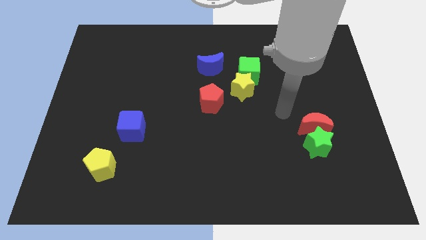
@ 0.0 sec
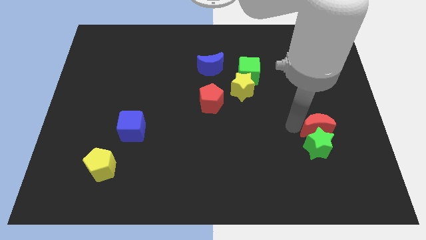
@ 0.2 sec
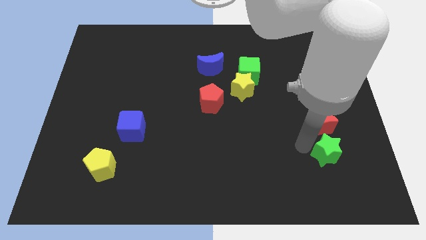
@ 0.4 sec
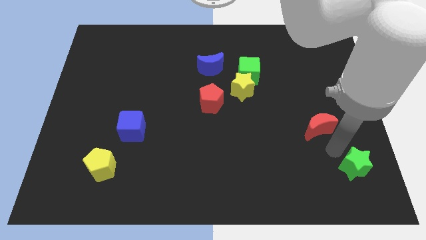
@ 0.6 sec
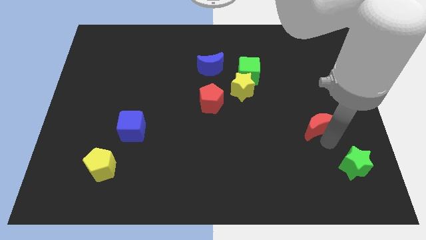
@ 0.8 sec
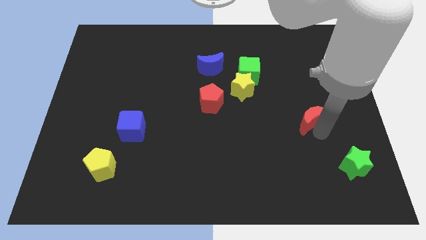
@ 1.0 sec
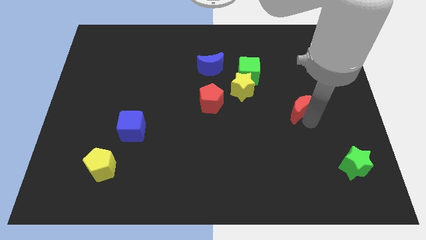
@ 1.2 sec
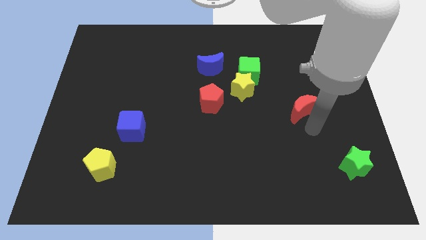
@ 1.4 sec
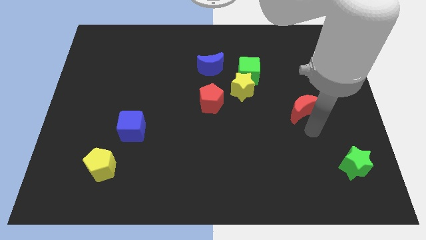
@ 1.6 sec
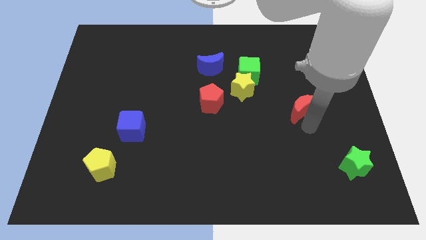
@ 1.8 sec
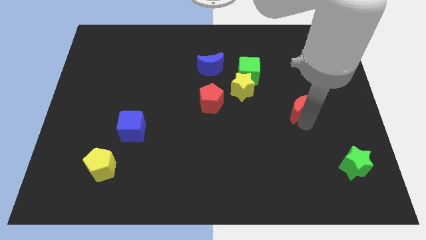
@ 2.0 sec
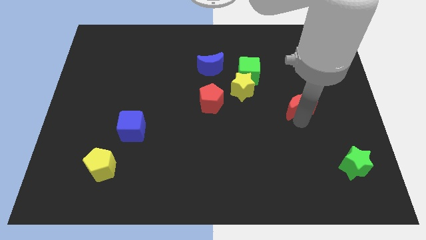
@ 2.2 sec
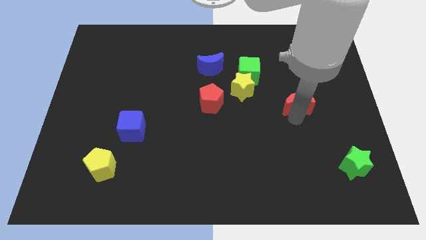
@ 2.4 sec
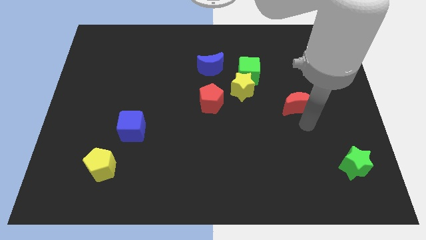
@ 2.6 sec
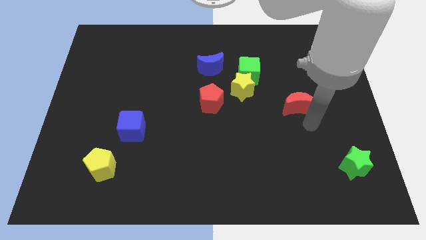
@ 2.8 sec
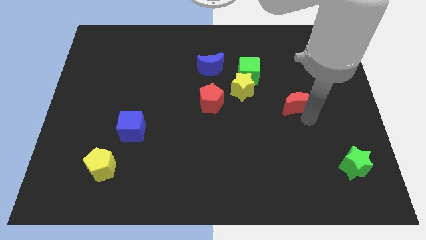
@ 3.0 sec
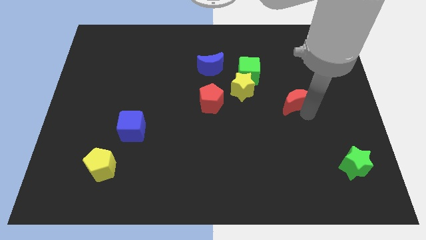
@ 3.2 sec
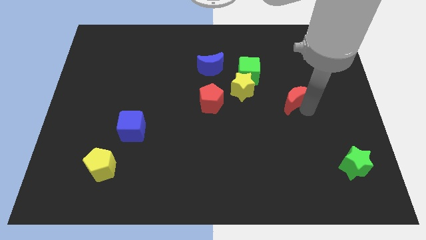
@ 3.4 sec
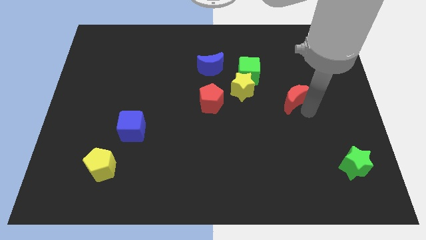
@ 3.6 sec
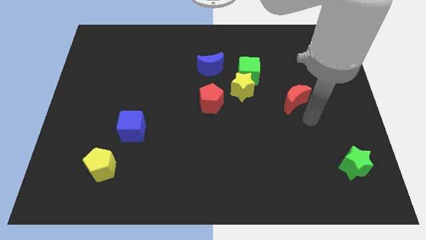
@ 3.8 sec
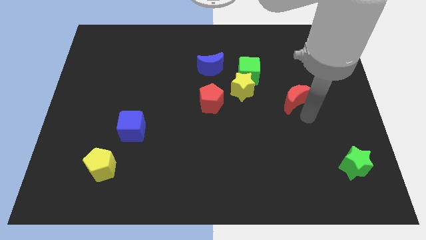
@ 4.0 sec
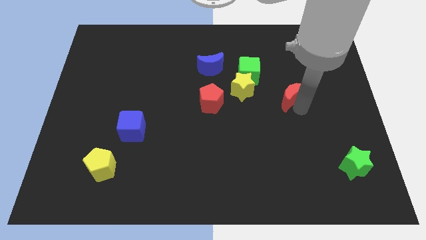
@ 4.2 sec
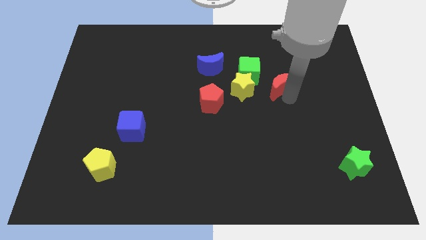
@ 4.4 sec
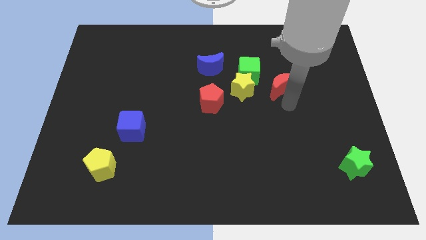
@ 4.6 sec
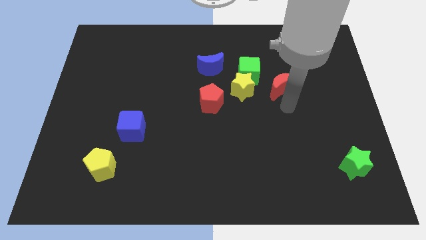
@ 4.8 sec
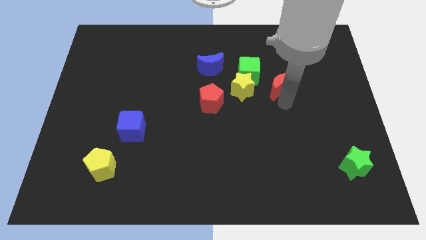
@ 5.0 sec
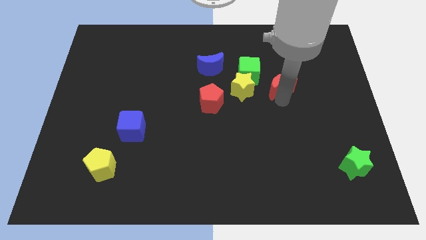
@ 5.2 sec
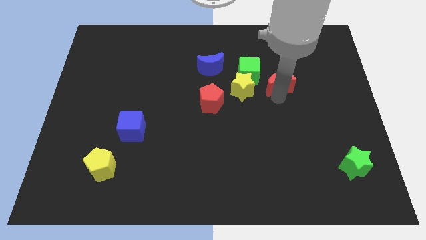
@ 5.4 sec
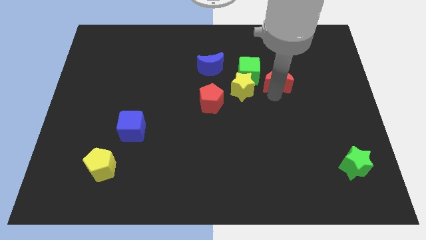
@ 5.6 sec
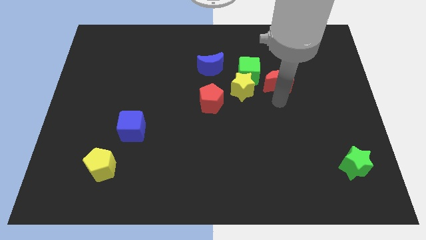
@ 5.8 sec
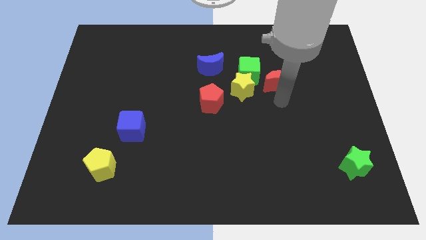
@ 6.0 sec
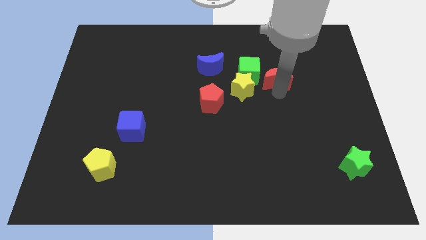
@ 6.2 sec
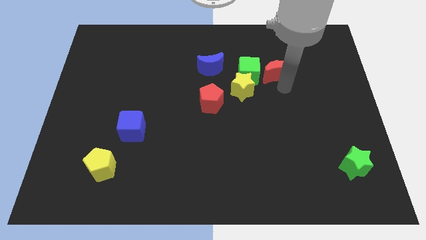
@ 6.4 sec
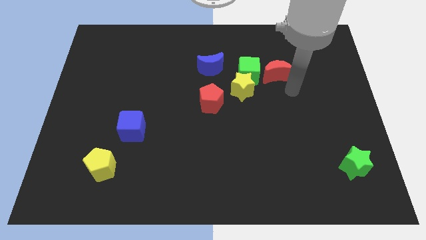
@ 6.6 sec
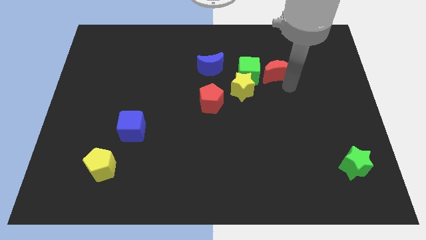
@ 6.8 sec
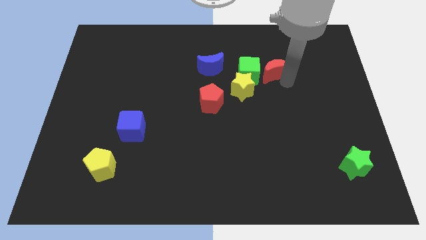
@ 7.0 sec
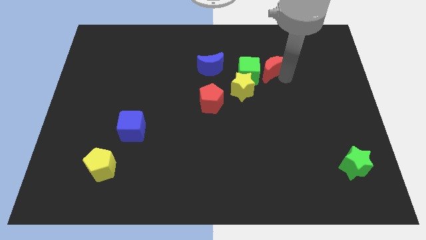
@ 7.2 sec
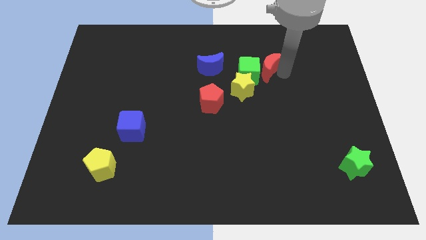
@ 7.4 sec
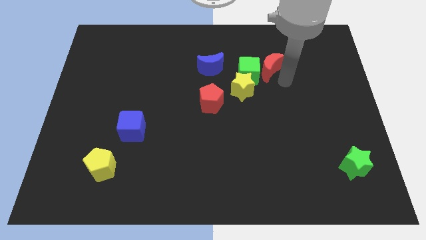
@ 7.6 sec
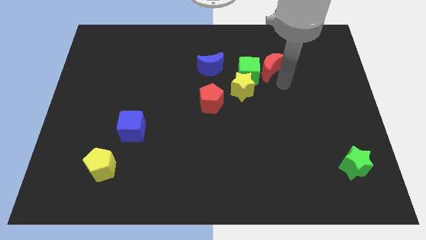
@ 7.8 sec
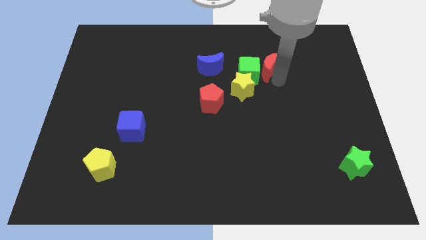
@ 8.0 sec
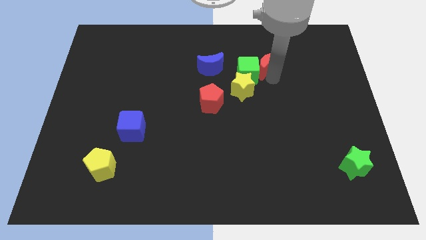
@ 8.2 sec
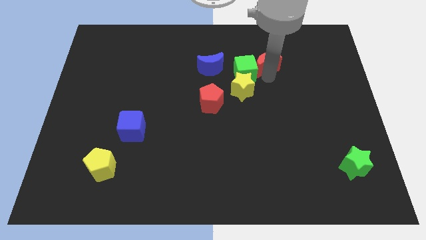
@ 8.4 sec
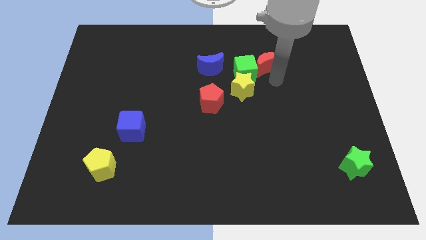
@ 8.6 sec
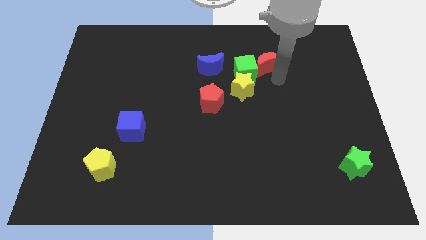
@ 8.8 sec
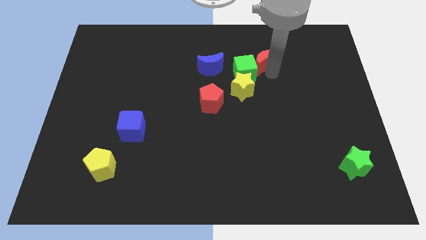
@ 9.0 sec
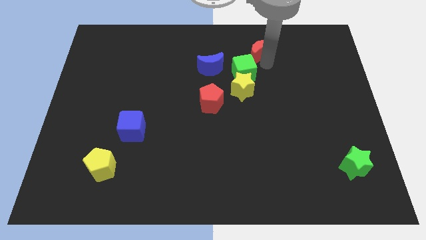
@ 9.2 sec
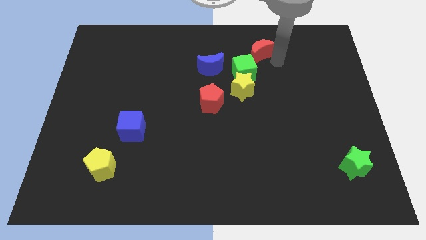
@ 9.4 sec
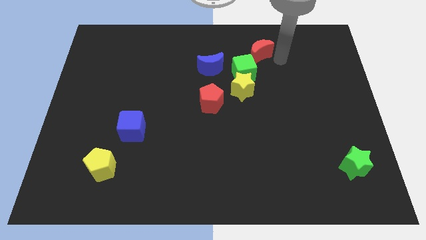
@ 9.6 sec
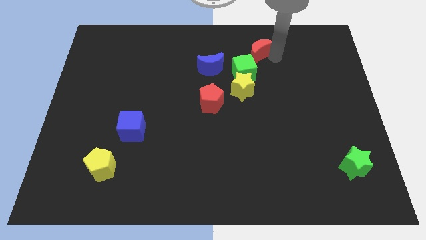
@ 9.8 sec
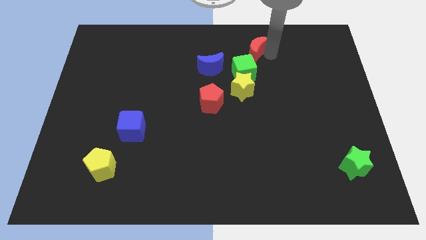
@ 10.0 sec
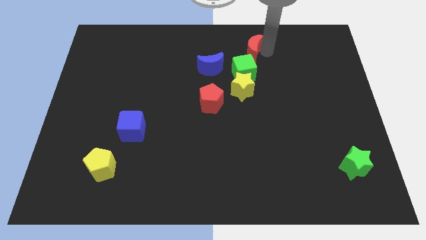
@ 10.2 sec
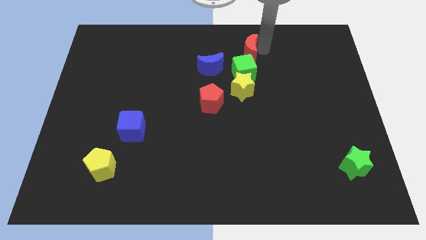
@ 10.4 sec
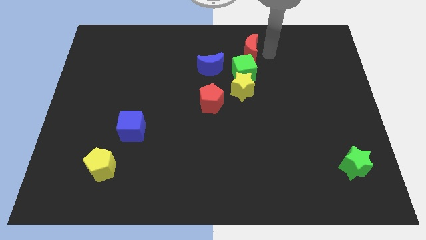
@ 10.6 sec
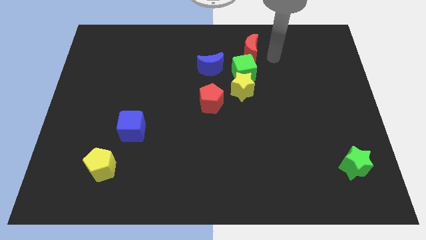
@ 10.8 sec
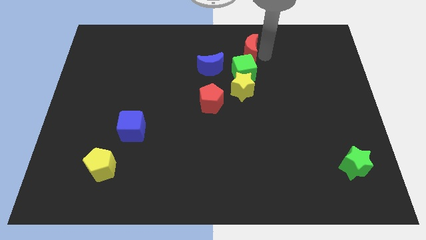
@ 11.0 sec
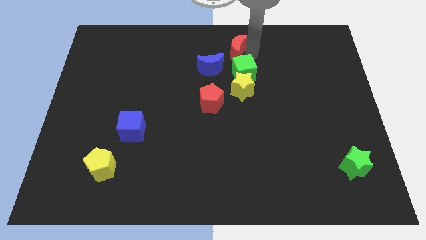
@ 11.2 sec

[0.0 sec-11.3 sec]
put the red moon to the towards your base

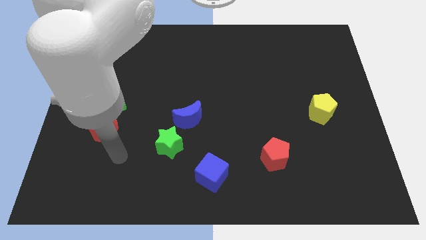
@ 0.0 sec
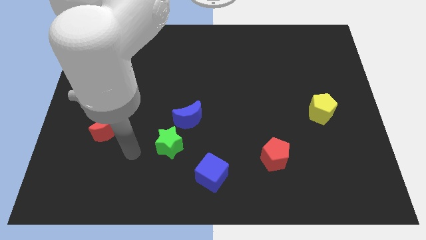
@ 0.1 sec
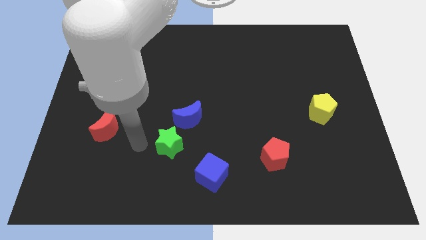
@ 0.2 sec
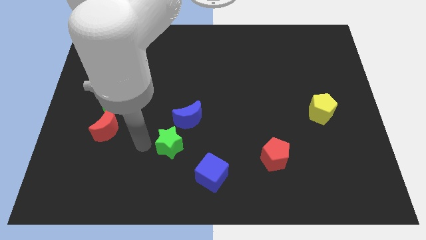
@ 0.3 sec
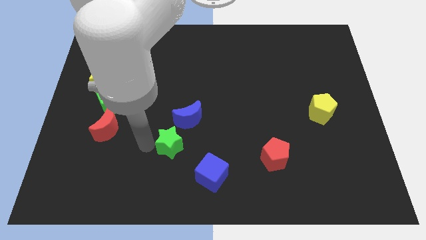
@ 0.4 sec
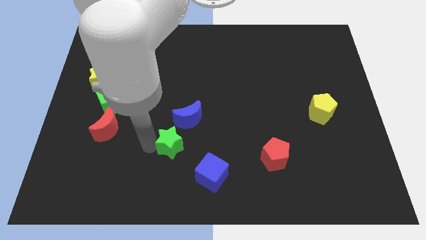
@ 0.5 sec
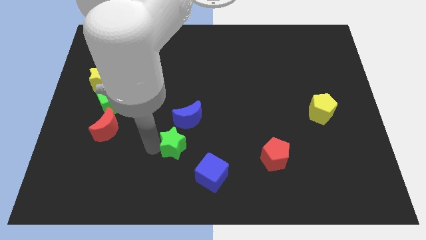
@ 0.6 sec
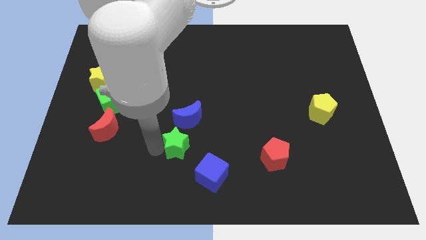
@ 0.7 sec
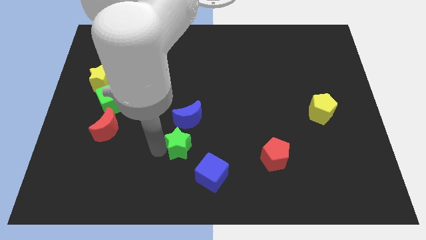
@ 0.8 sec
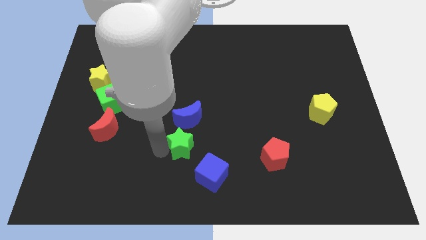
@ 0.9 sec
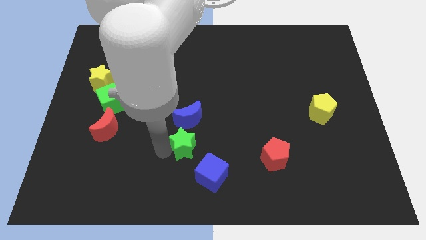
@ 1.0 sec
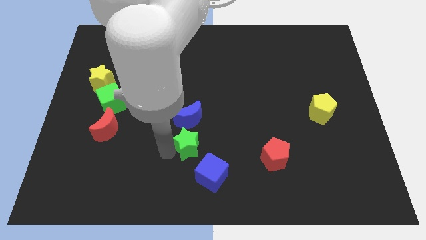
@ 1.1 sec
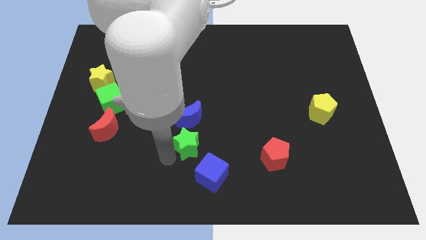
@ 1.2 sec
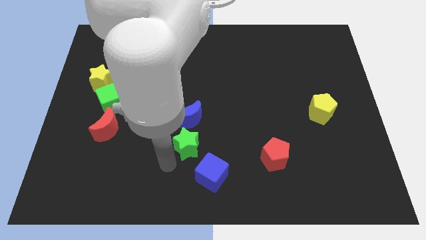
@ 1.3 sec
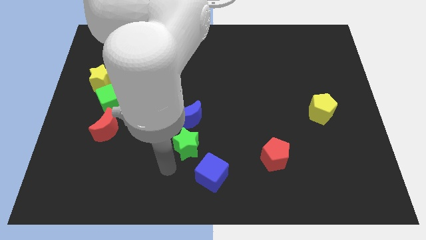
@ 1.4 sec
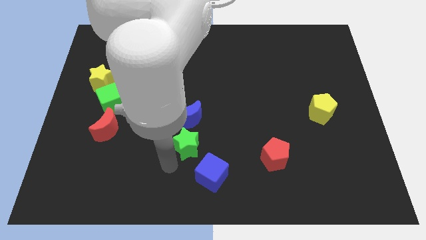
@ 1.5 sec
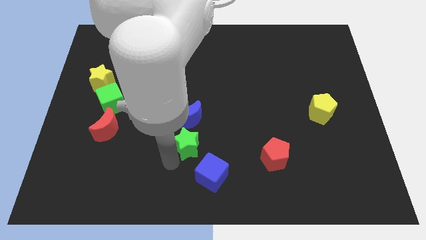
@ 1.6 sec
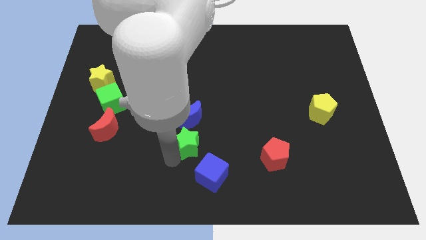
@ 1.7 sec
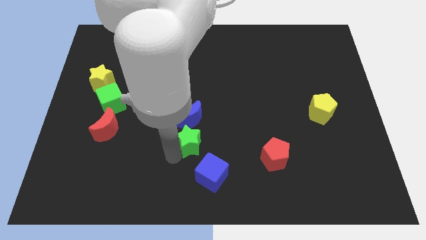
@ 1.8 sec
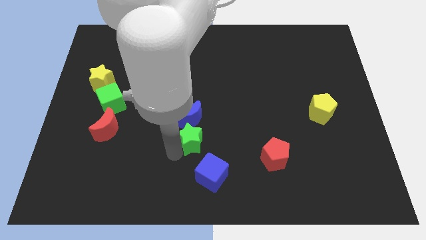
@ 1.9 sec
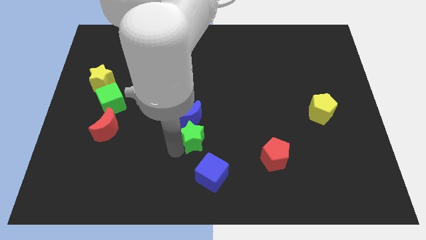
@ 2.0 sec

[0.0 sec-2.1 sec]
move the green star to the center
